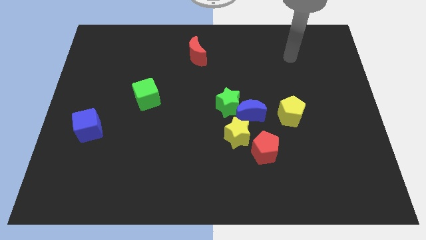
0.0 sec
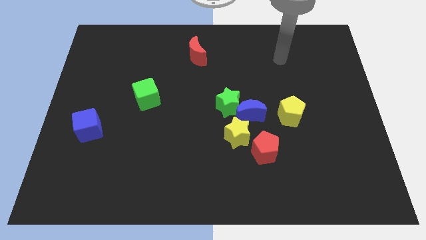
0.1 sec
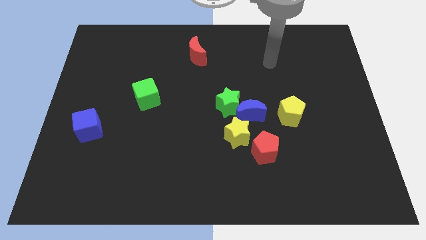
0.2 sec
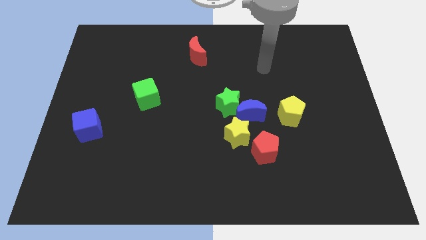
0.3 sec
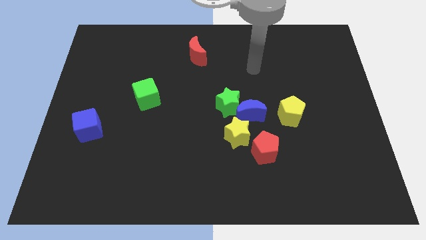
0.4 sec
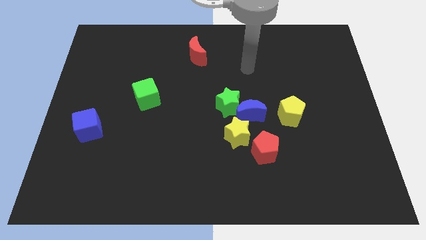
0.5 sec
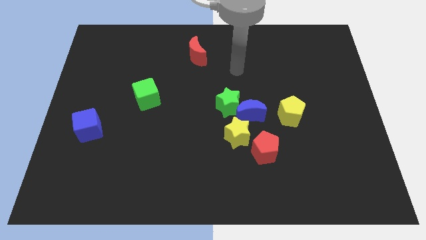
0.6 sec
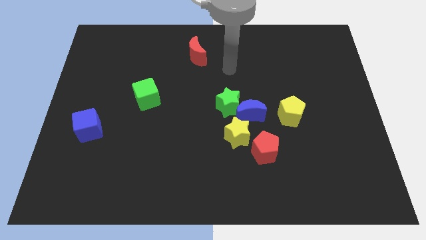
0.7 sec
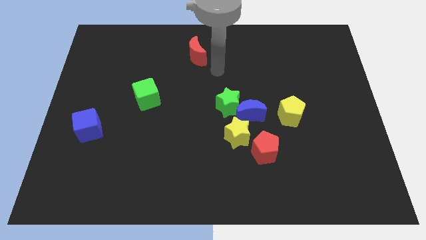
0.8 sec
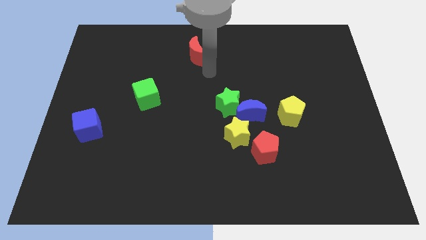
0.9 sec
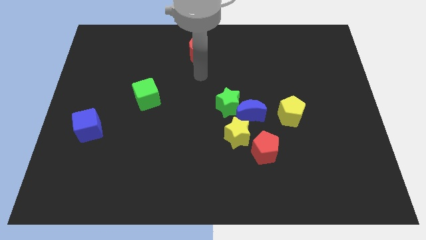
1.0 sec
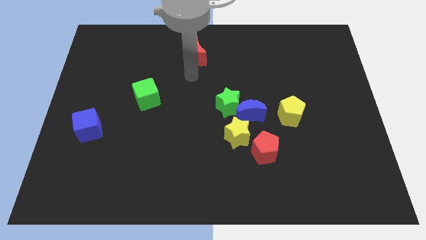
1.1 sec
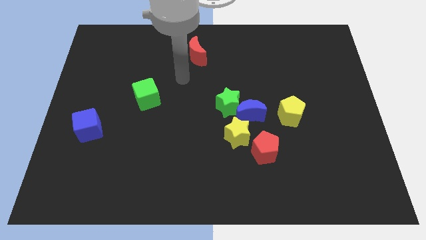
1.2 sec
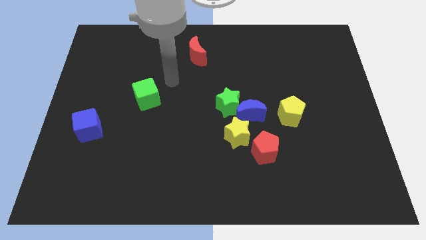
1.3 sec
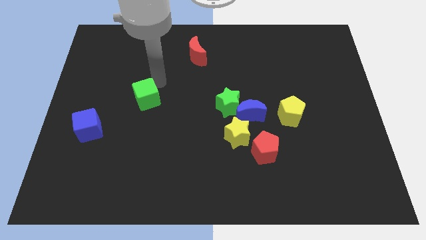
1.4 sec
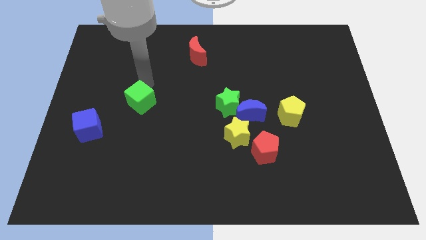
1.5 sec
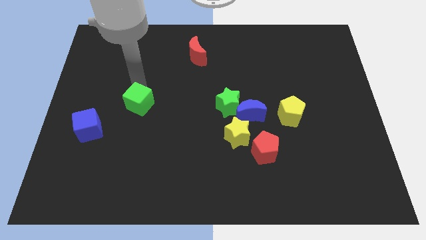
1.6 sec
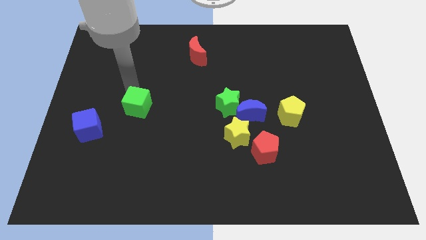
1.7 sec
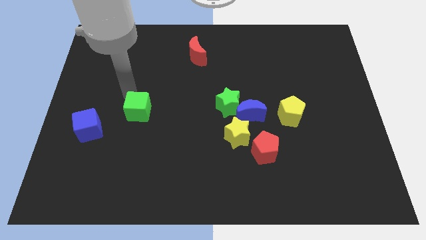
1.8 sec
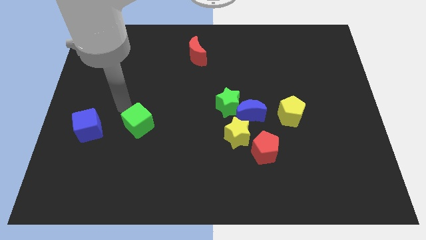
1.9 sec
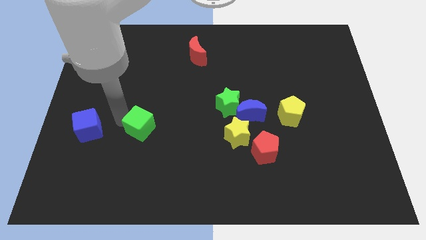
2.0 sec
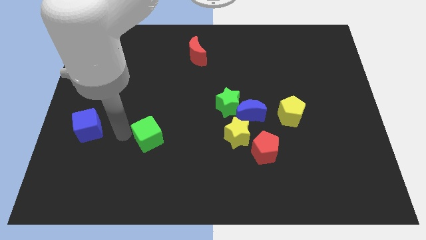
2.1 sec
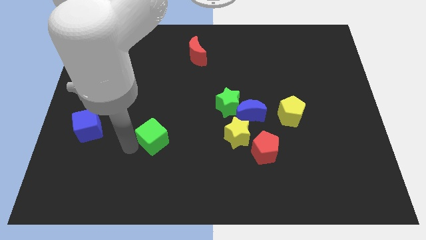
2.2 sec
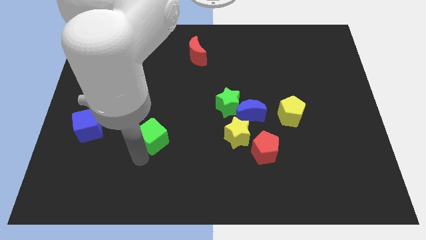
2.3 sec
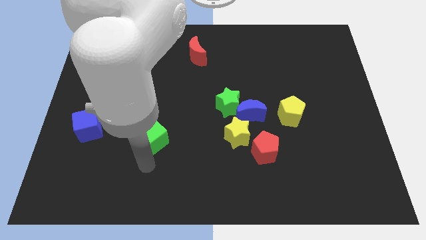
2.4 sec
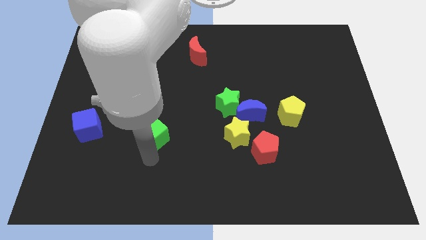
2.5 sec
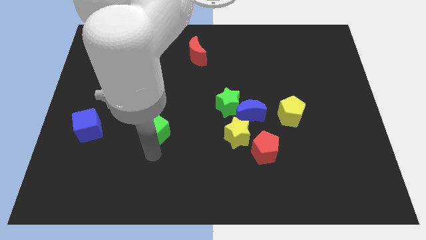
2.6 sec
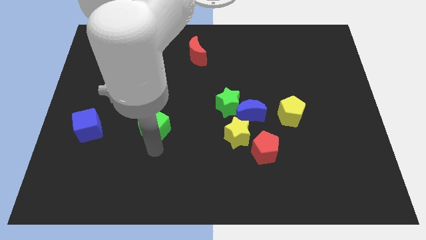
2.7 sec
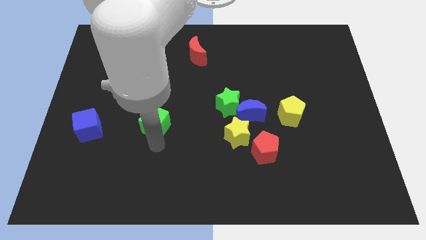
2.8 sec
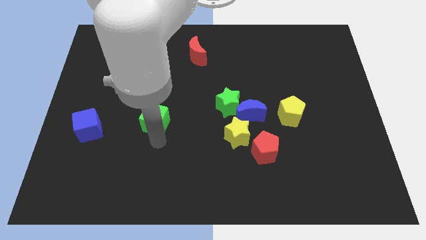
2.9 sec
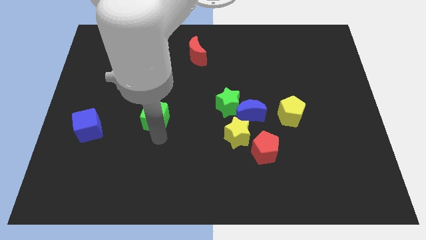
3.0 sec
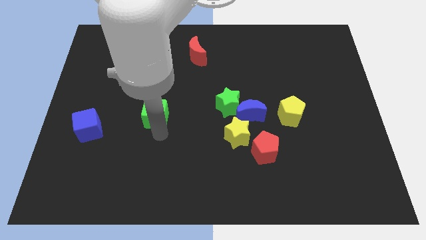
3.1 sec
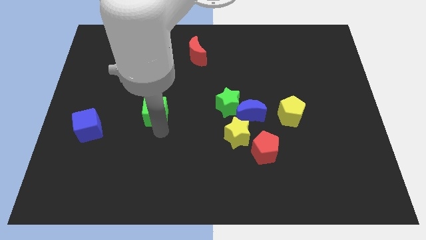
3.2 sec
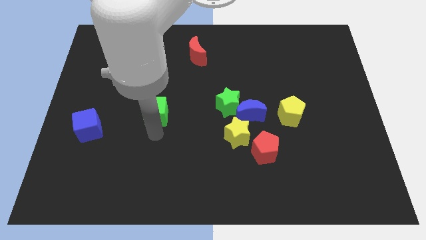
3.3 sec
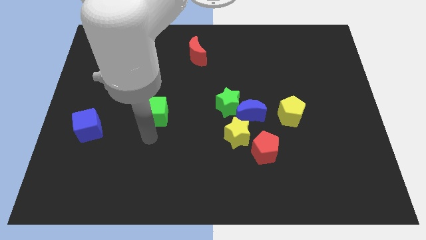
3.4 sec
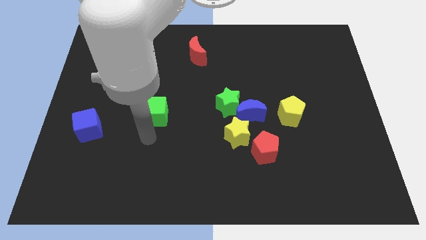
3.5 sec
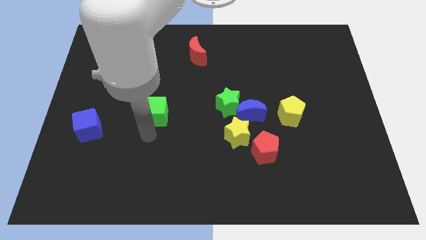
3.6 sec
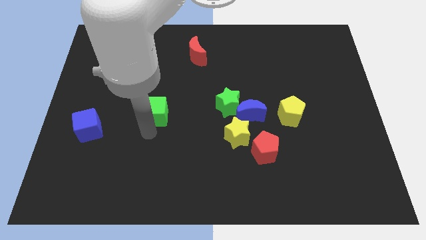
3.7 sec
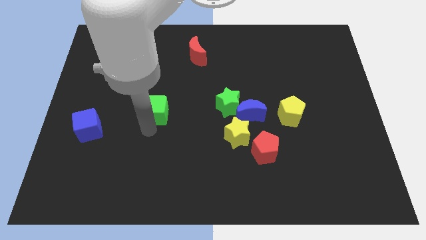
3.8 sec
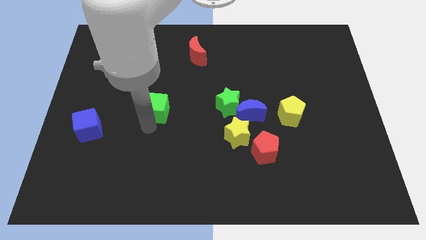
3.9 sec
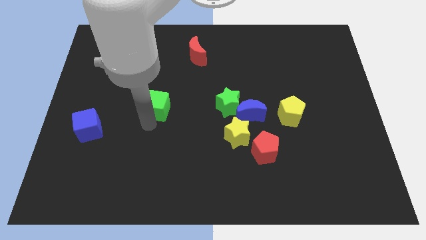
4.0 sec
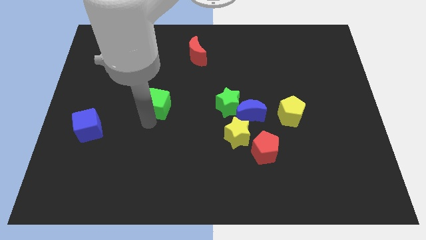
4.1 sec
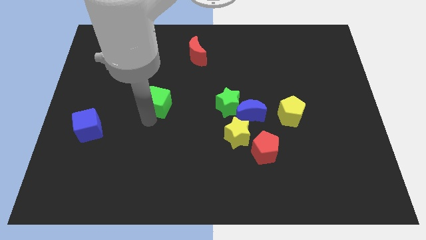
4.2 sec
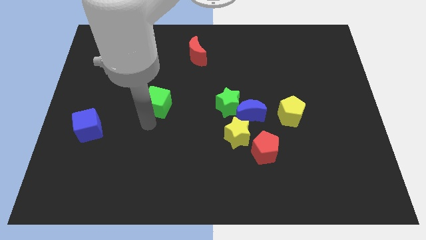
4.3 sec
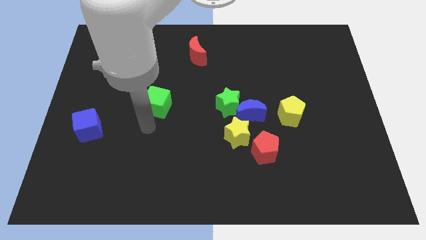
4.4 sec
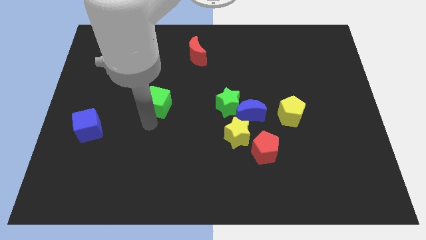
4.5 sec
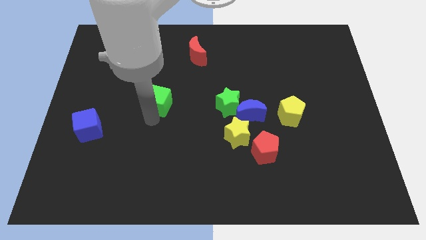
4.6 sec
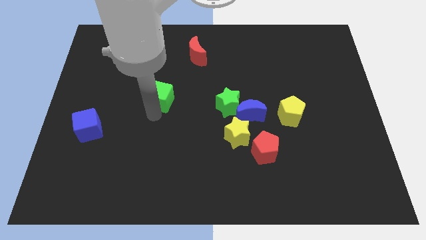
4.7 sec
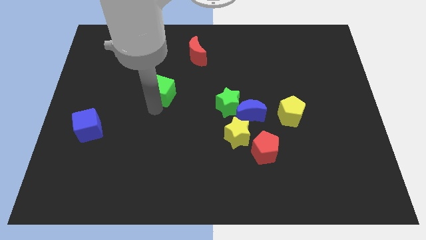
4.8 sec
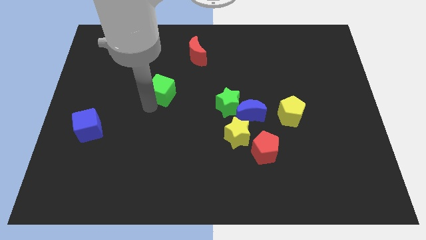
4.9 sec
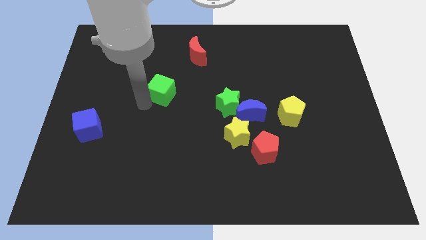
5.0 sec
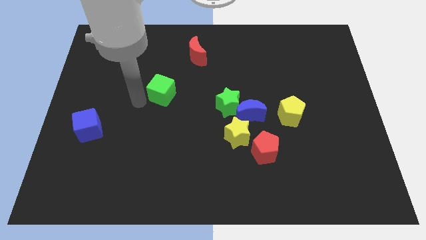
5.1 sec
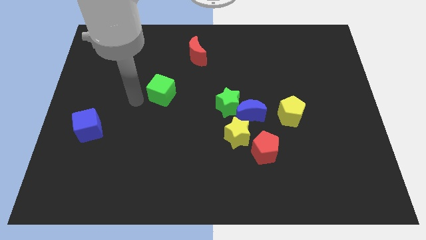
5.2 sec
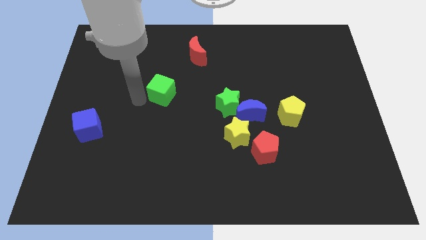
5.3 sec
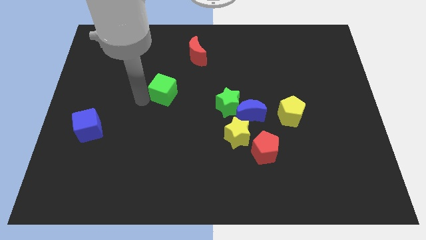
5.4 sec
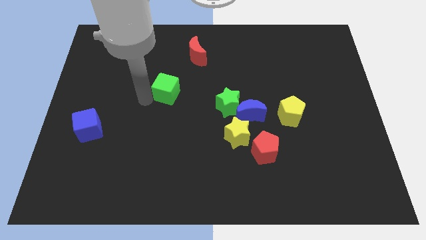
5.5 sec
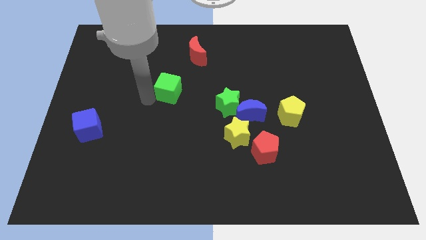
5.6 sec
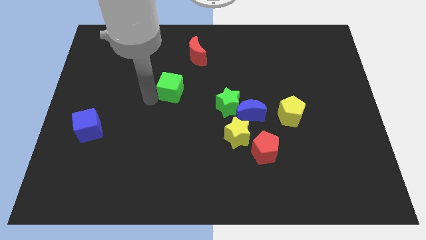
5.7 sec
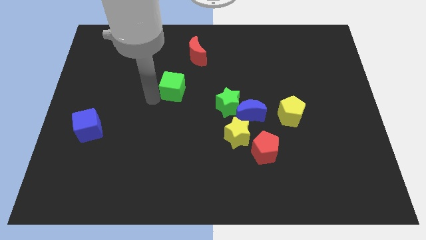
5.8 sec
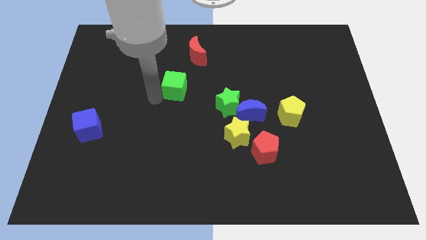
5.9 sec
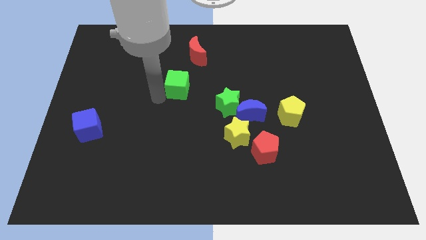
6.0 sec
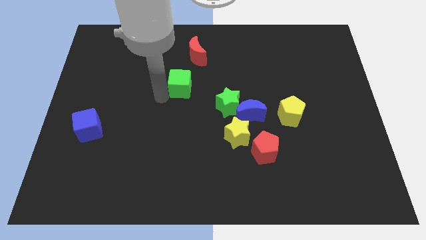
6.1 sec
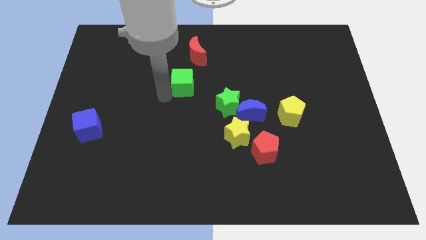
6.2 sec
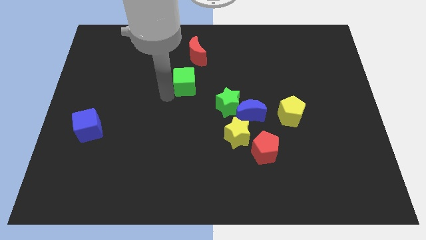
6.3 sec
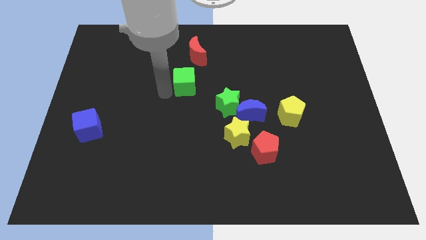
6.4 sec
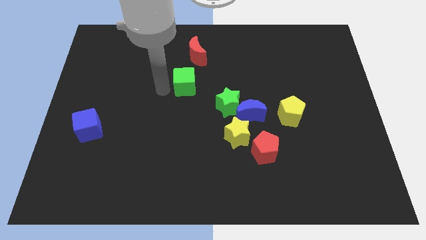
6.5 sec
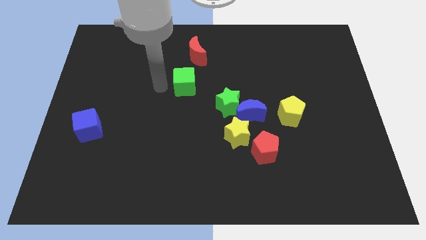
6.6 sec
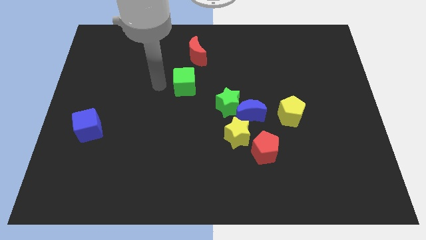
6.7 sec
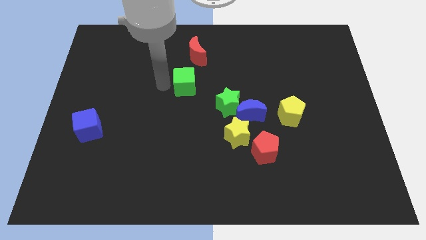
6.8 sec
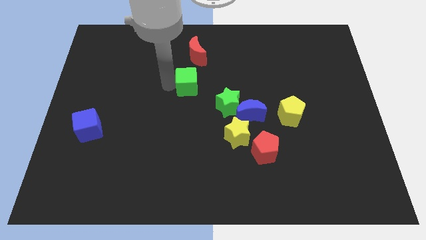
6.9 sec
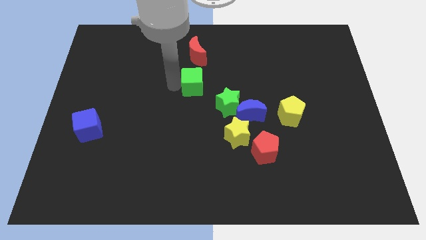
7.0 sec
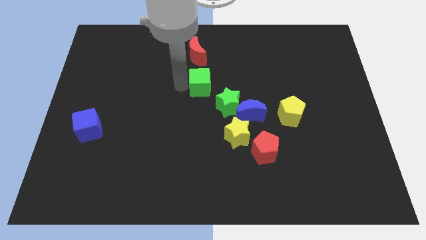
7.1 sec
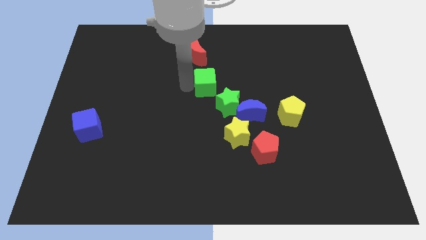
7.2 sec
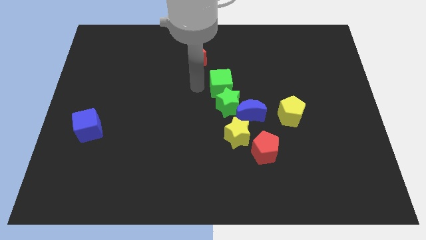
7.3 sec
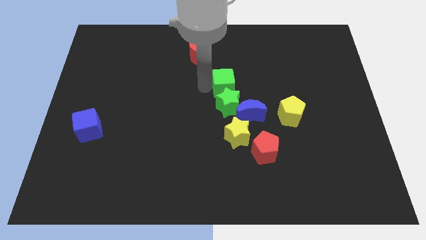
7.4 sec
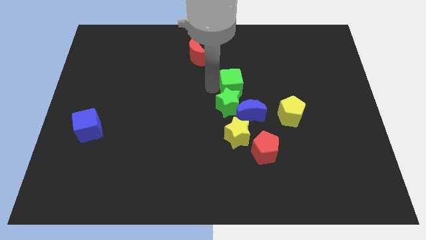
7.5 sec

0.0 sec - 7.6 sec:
put the green cube to the top side of the blue moon
